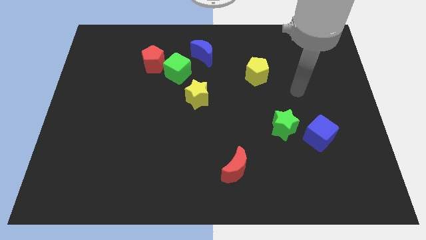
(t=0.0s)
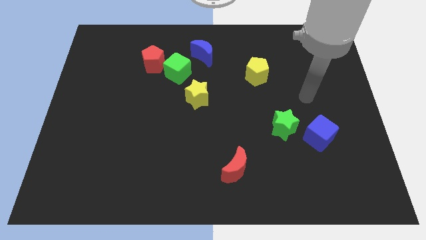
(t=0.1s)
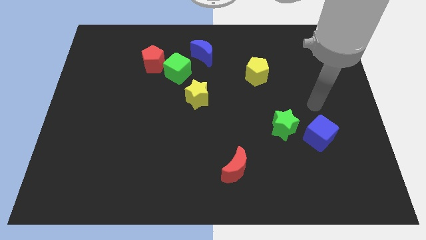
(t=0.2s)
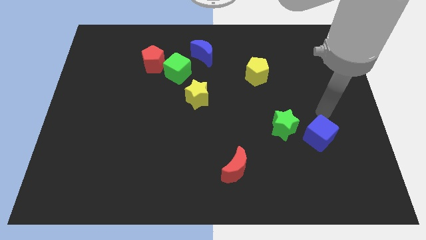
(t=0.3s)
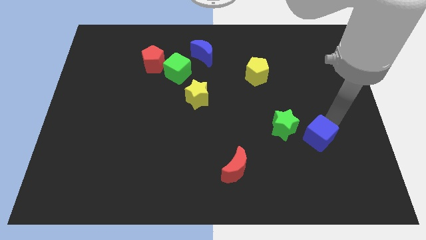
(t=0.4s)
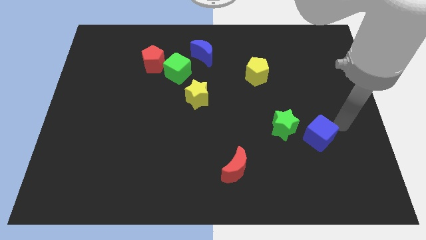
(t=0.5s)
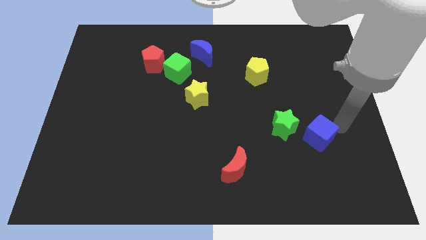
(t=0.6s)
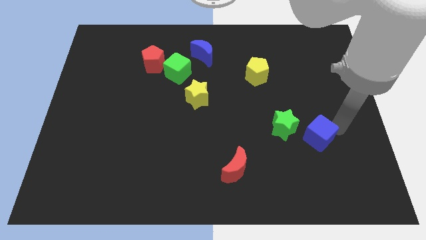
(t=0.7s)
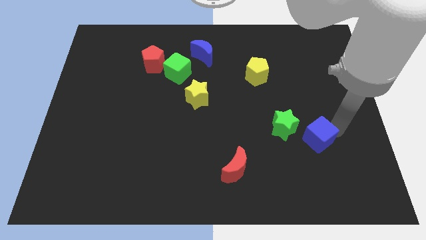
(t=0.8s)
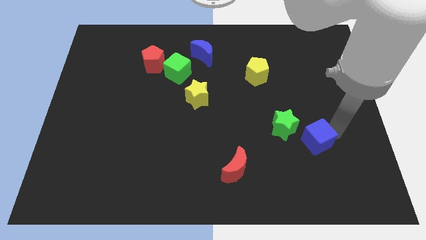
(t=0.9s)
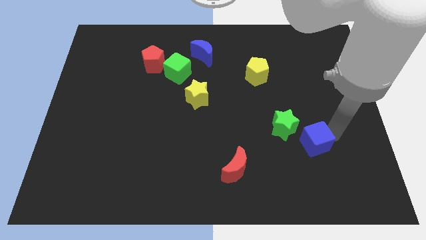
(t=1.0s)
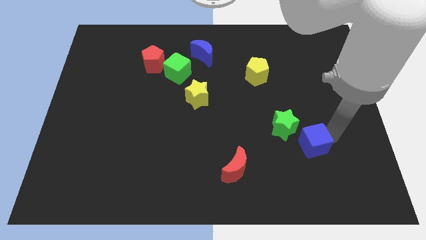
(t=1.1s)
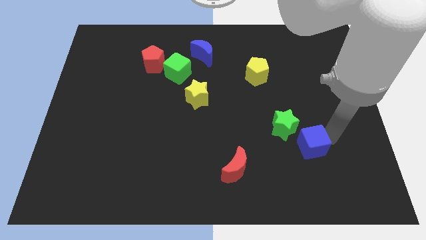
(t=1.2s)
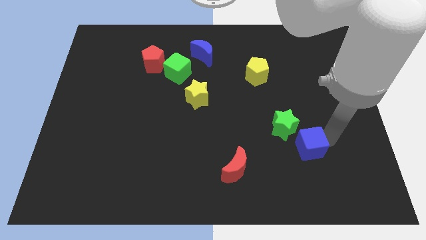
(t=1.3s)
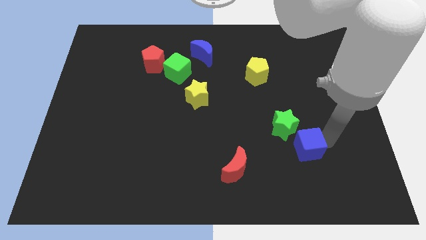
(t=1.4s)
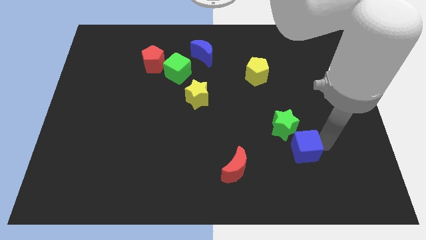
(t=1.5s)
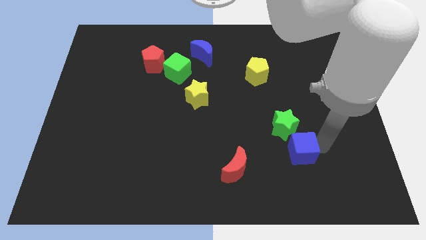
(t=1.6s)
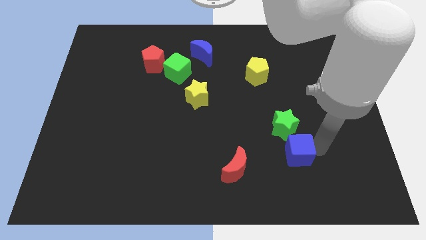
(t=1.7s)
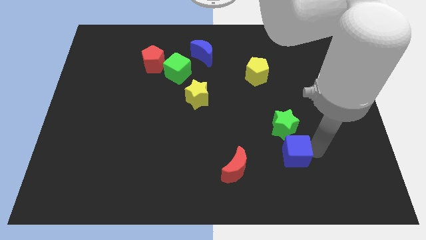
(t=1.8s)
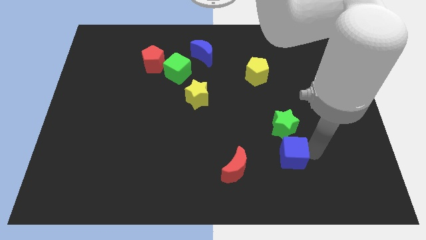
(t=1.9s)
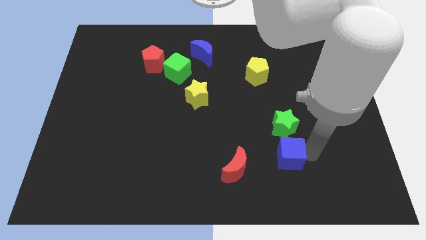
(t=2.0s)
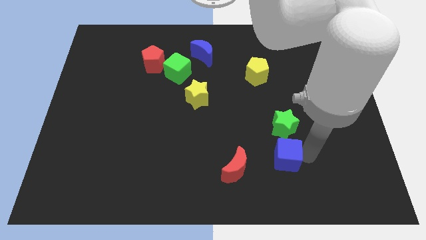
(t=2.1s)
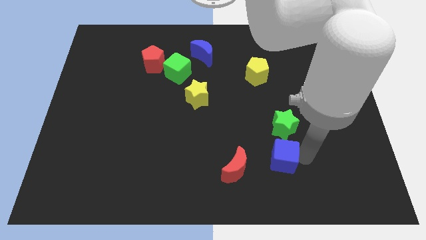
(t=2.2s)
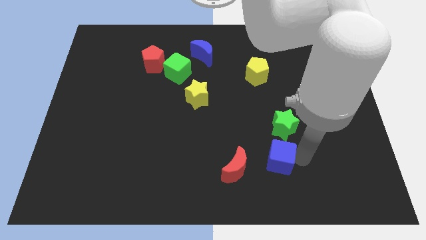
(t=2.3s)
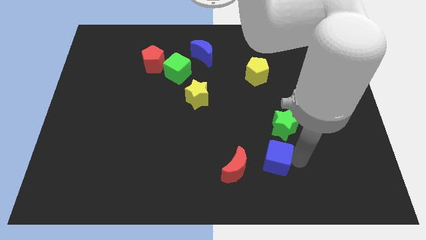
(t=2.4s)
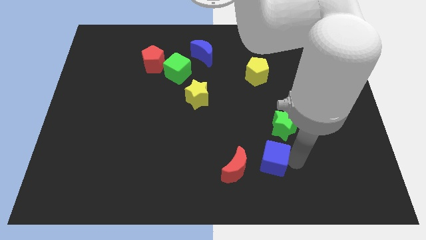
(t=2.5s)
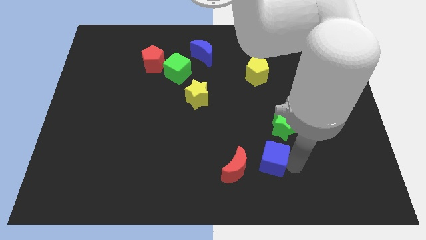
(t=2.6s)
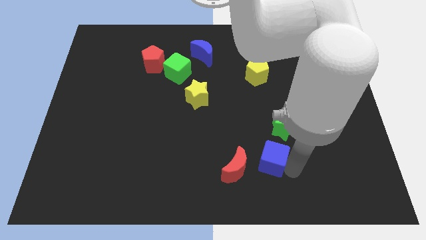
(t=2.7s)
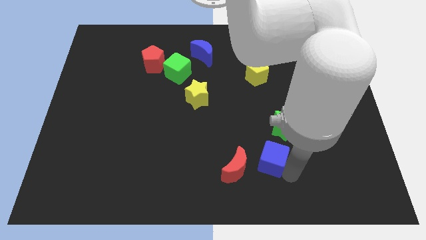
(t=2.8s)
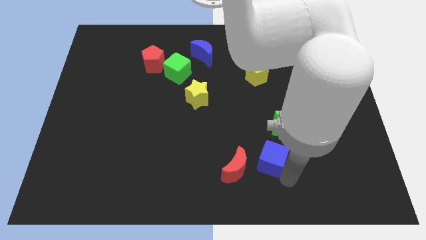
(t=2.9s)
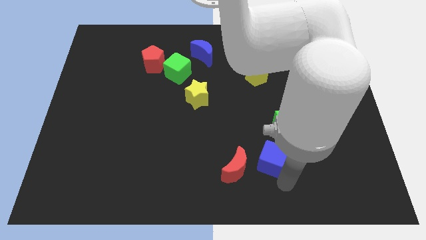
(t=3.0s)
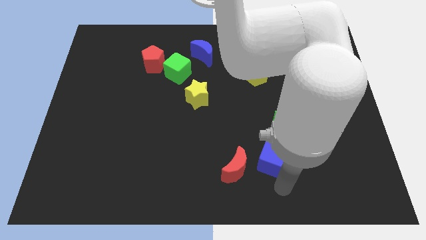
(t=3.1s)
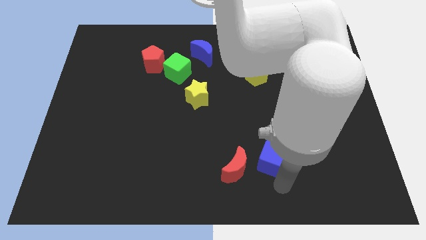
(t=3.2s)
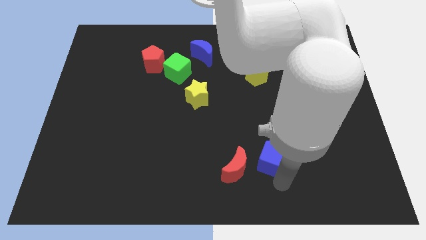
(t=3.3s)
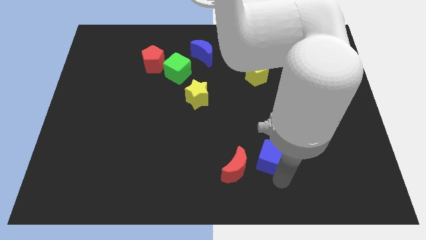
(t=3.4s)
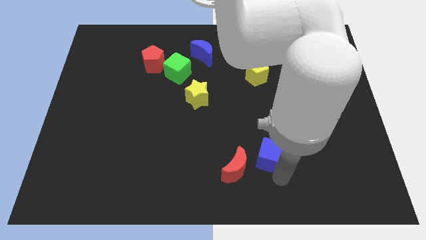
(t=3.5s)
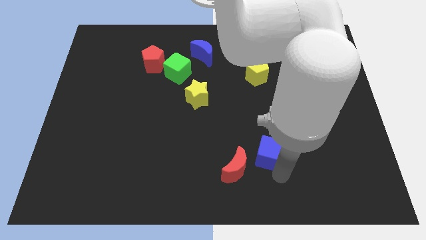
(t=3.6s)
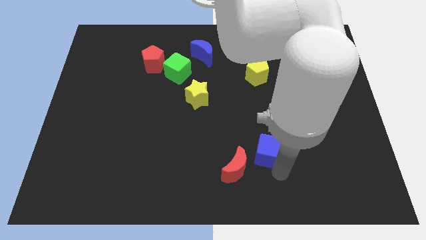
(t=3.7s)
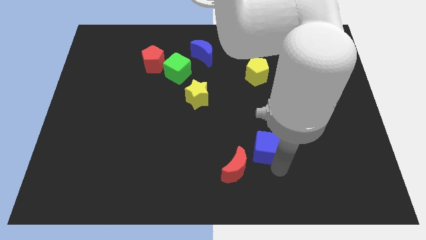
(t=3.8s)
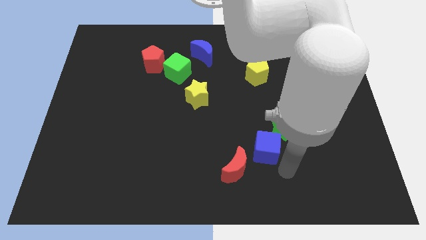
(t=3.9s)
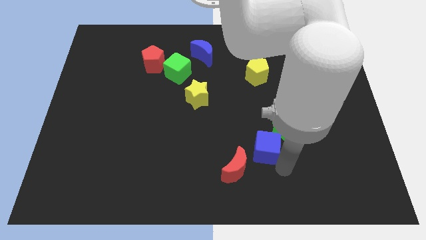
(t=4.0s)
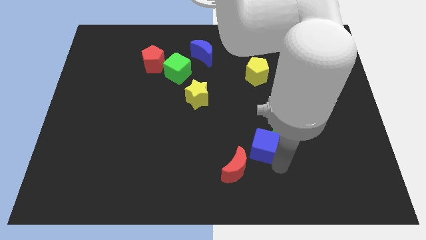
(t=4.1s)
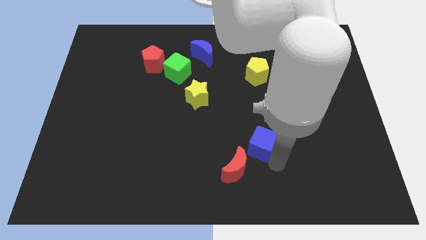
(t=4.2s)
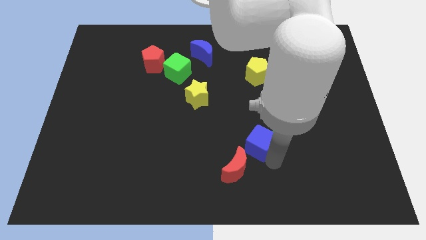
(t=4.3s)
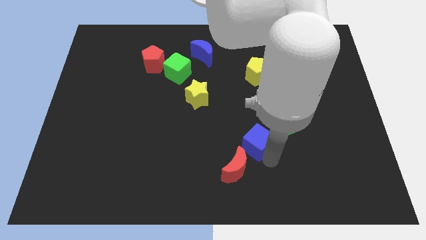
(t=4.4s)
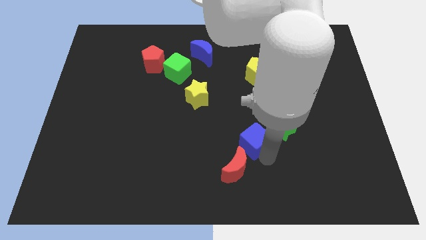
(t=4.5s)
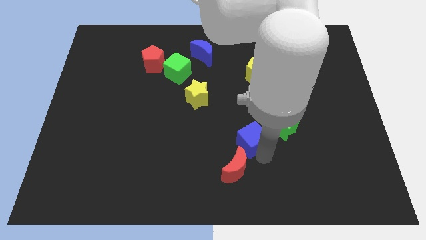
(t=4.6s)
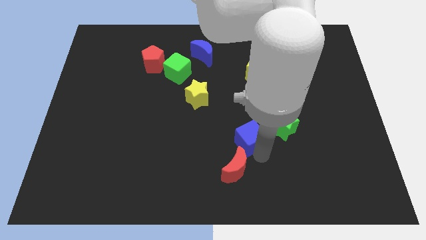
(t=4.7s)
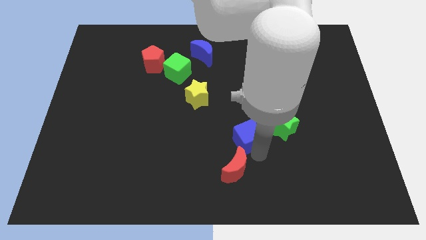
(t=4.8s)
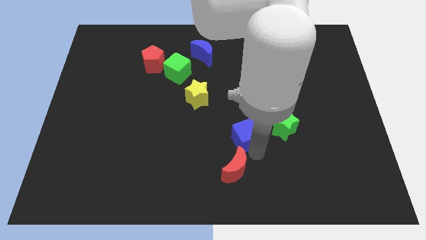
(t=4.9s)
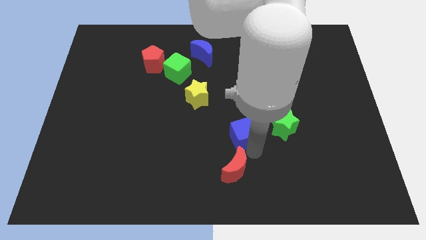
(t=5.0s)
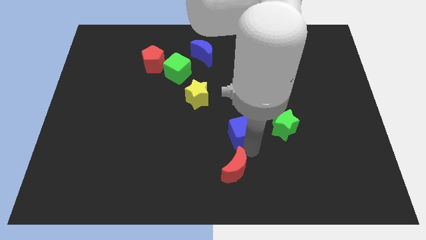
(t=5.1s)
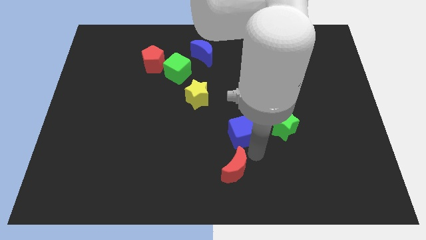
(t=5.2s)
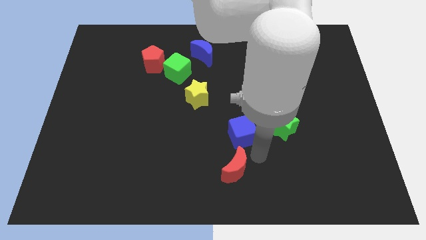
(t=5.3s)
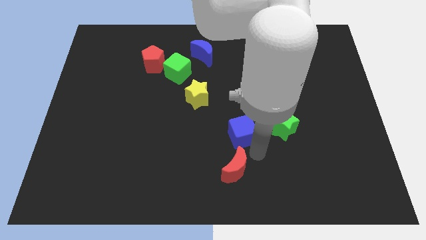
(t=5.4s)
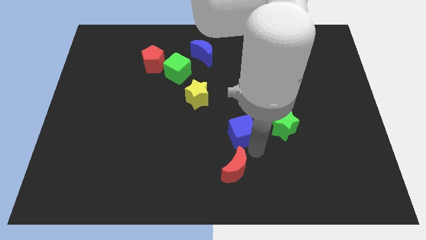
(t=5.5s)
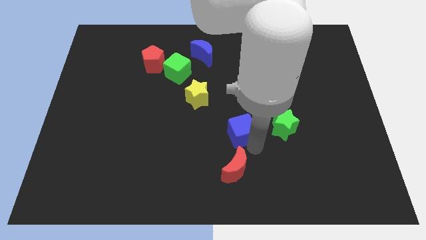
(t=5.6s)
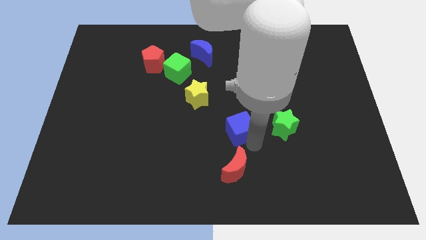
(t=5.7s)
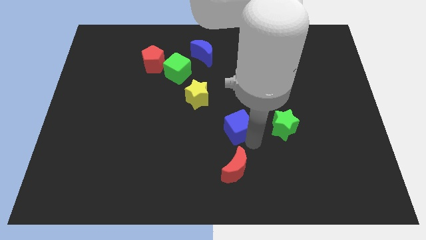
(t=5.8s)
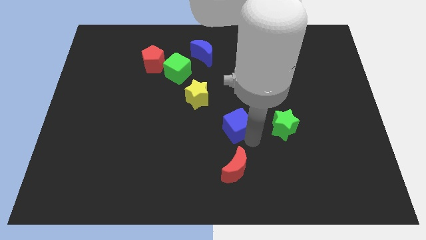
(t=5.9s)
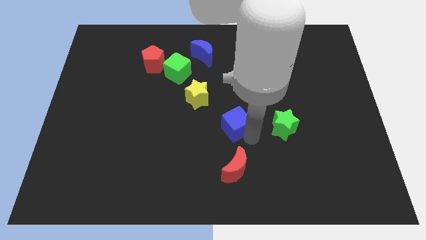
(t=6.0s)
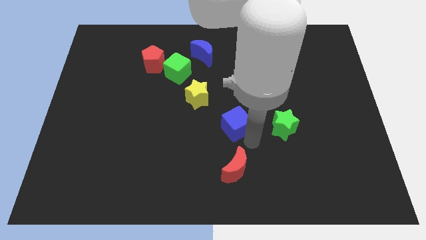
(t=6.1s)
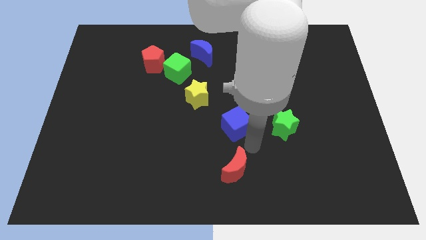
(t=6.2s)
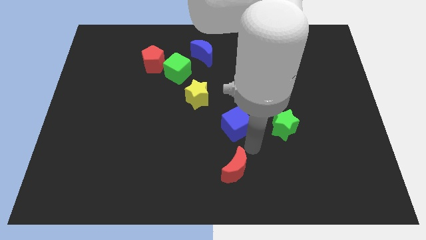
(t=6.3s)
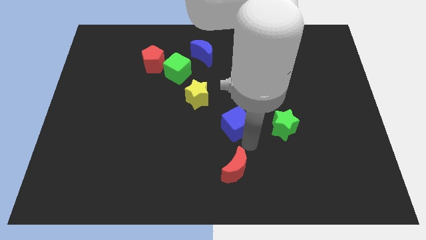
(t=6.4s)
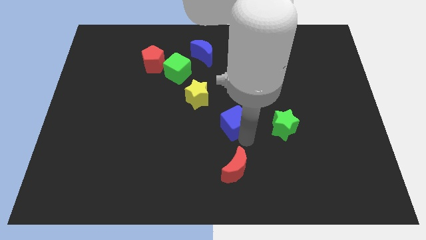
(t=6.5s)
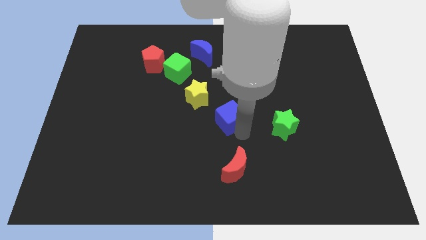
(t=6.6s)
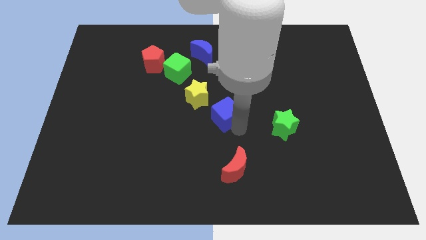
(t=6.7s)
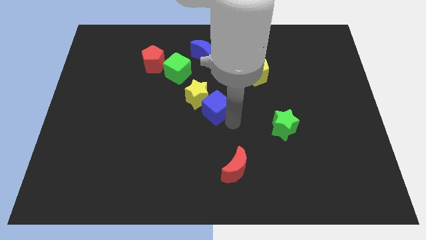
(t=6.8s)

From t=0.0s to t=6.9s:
move the blue cube to the yellow star

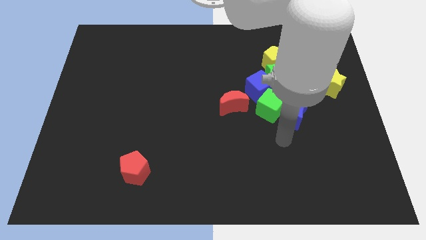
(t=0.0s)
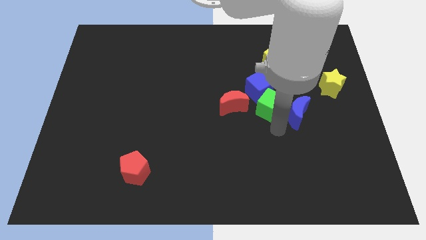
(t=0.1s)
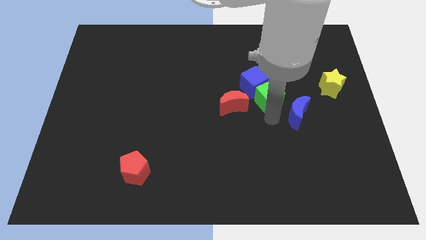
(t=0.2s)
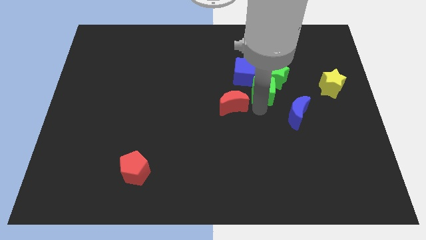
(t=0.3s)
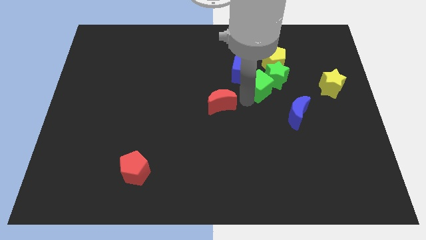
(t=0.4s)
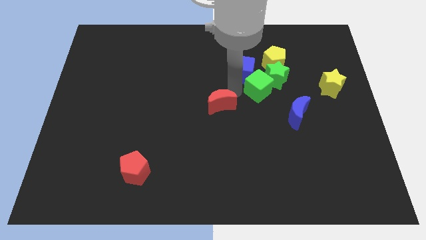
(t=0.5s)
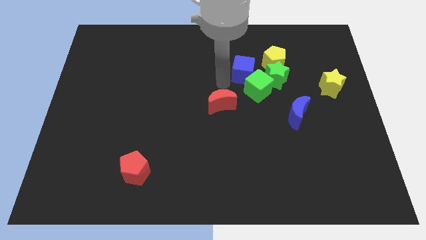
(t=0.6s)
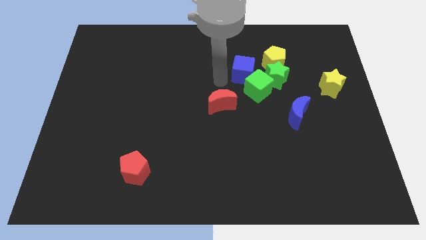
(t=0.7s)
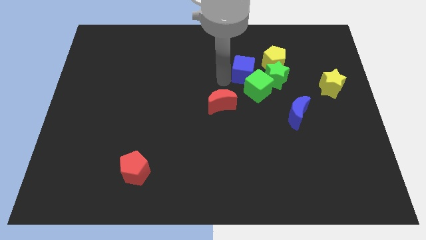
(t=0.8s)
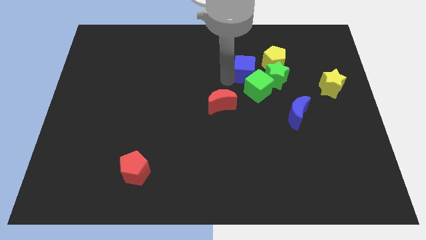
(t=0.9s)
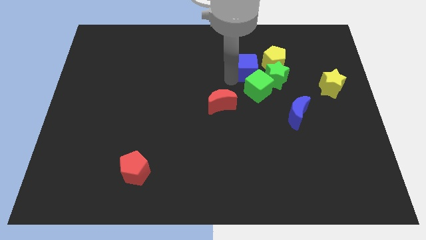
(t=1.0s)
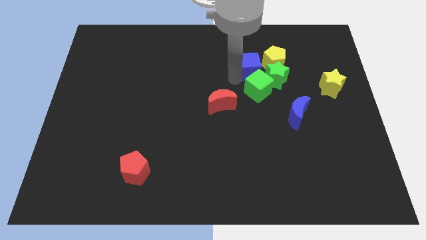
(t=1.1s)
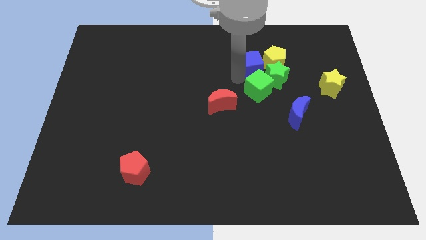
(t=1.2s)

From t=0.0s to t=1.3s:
put the blue cube close to the yellow pentagon

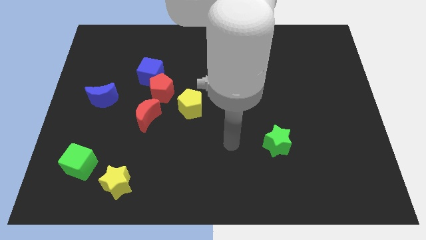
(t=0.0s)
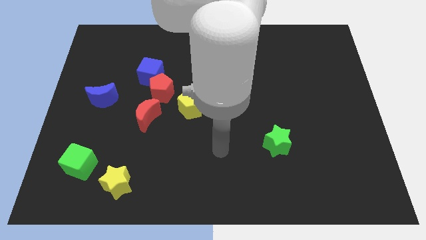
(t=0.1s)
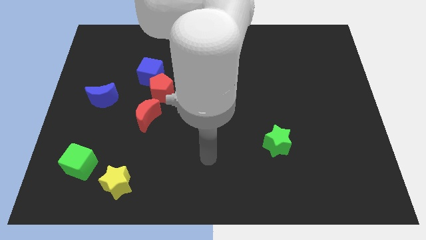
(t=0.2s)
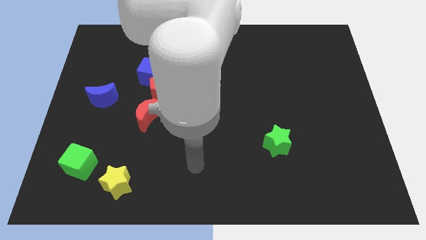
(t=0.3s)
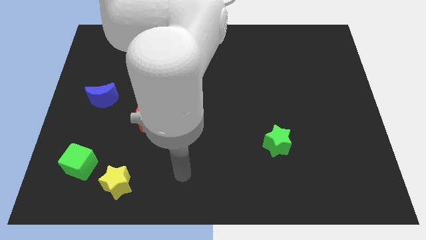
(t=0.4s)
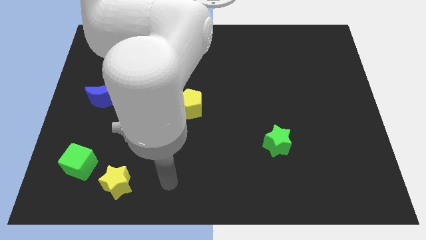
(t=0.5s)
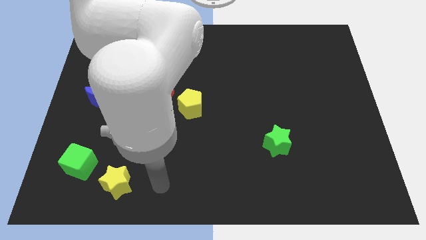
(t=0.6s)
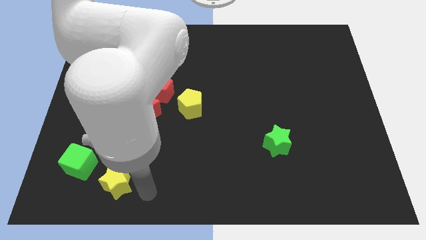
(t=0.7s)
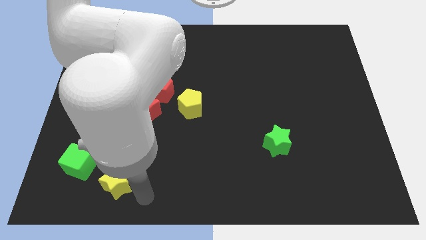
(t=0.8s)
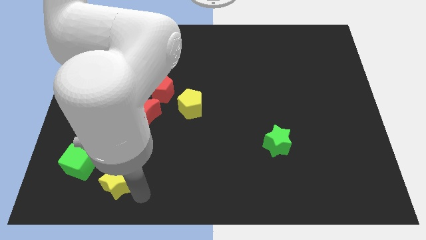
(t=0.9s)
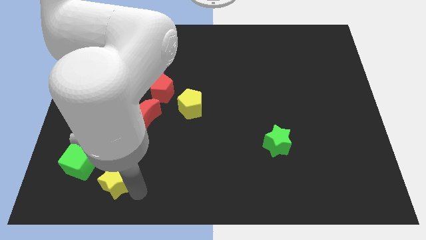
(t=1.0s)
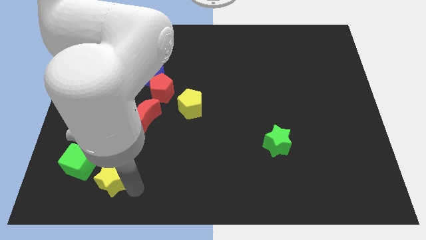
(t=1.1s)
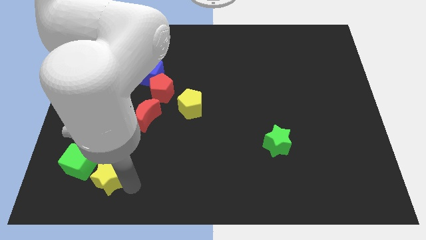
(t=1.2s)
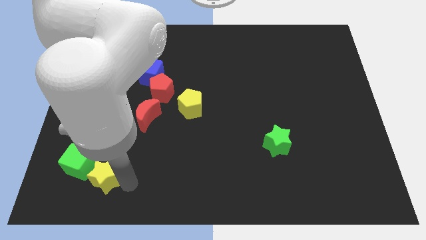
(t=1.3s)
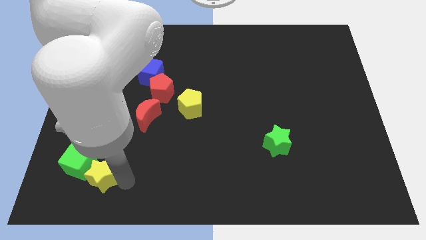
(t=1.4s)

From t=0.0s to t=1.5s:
slide the yellow star close to the green cube
